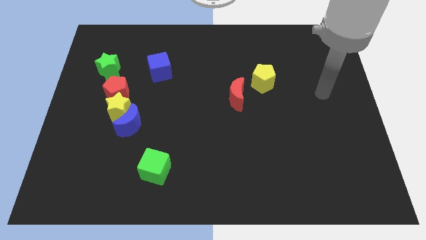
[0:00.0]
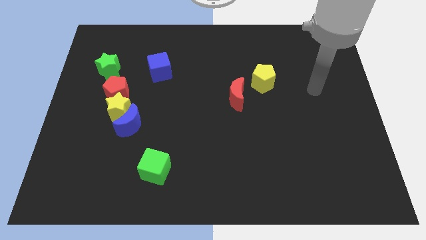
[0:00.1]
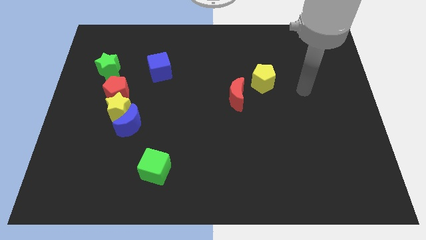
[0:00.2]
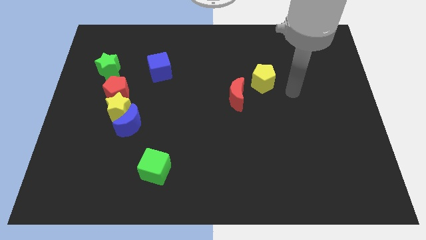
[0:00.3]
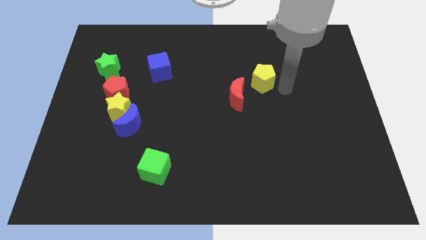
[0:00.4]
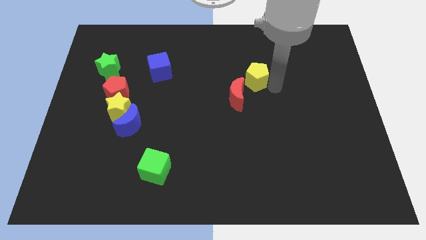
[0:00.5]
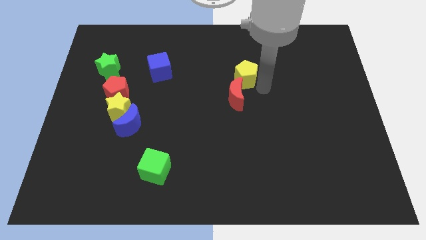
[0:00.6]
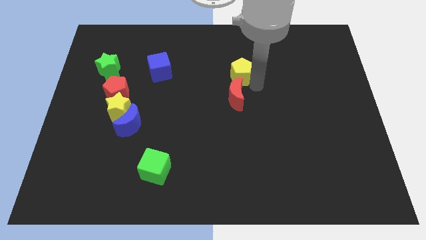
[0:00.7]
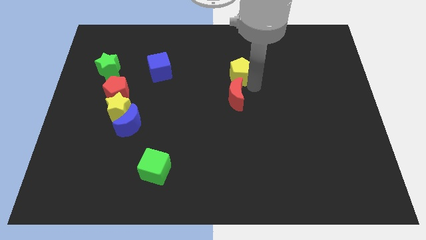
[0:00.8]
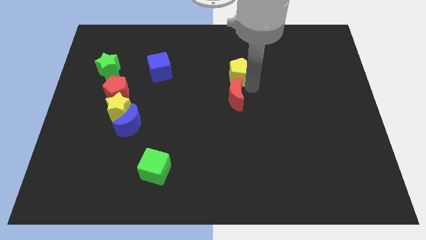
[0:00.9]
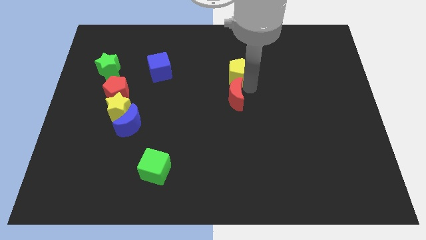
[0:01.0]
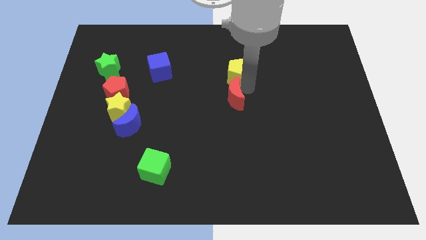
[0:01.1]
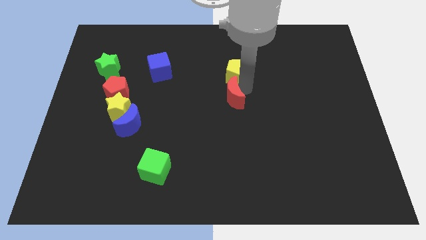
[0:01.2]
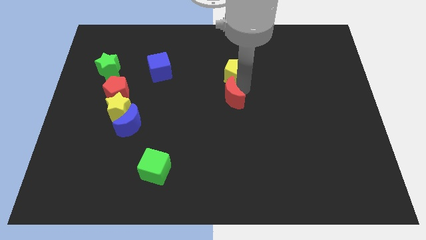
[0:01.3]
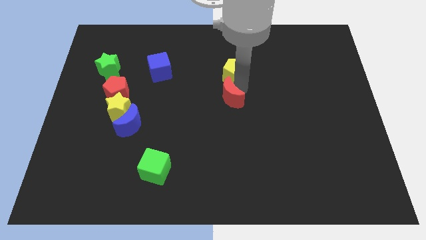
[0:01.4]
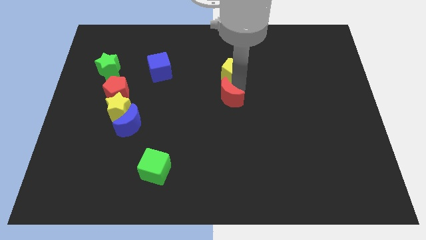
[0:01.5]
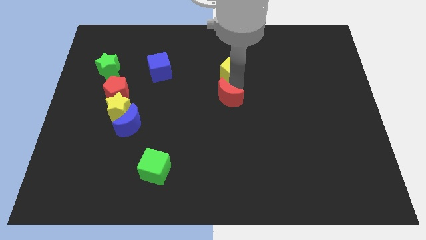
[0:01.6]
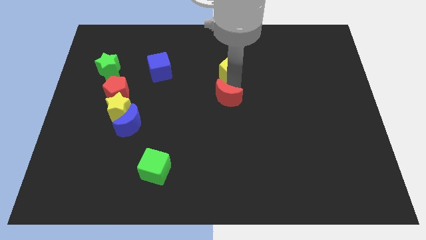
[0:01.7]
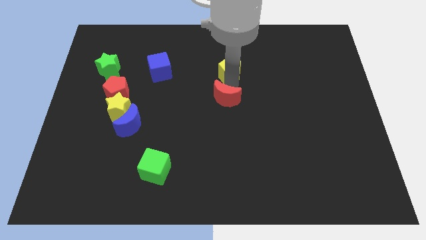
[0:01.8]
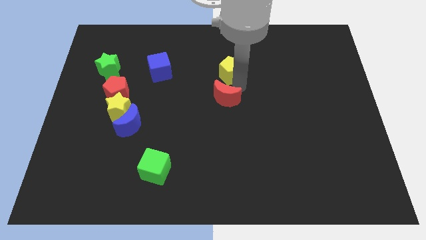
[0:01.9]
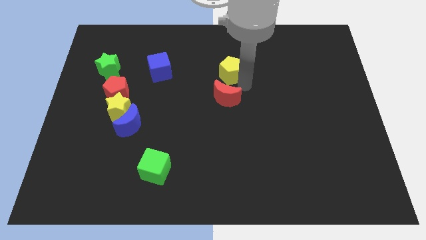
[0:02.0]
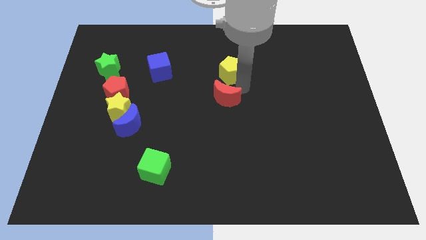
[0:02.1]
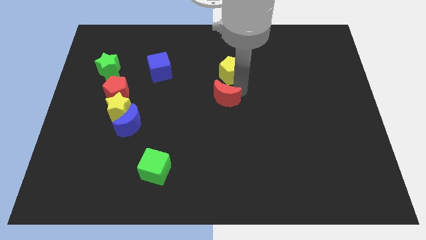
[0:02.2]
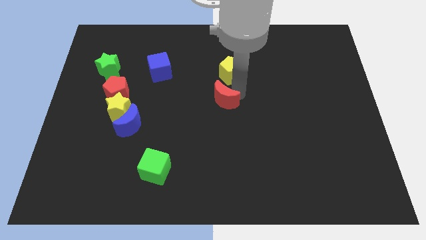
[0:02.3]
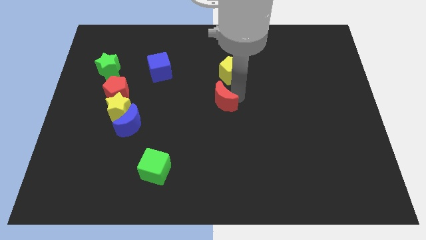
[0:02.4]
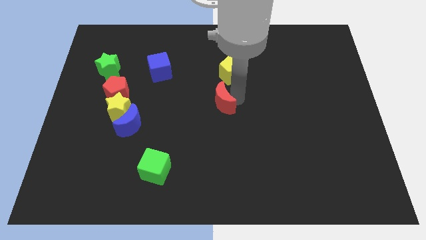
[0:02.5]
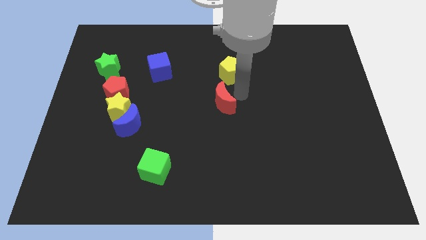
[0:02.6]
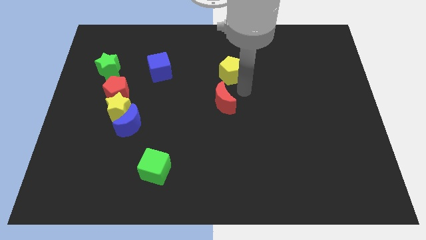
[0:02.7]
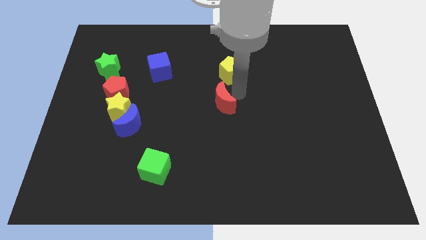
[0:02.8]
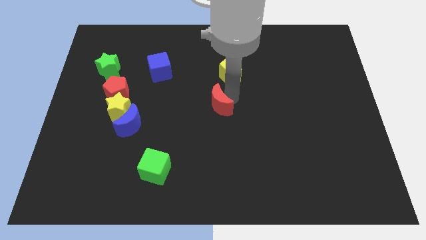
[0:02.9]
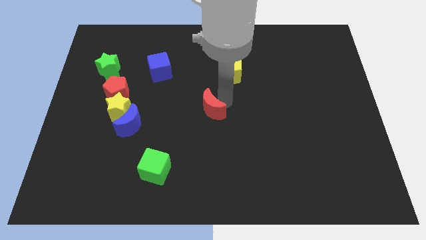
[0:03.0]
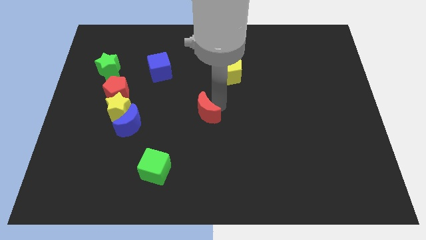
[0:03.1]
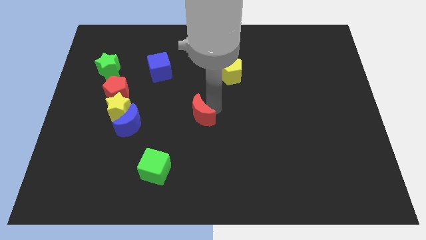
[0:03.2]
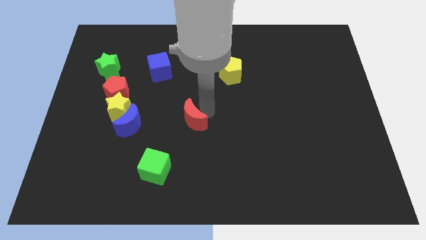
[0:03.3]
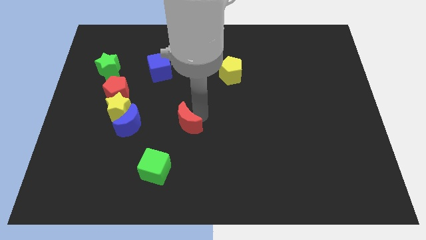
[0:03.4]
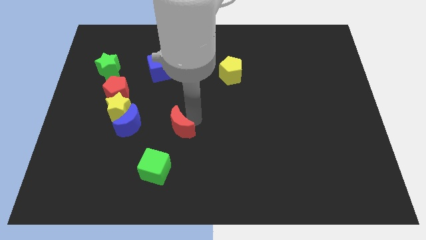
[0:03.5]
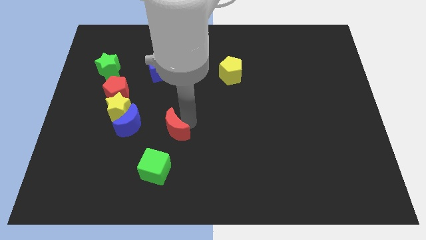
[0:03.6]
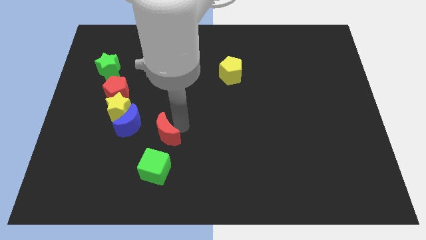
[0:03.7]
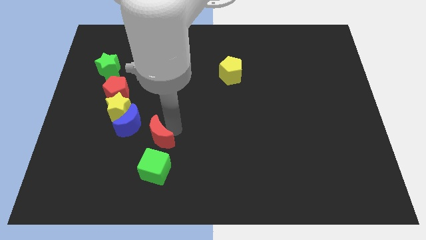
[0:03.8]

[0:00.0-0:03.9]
push the red moon downwards and to the left diagonally

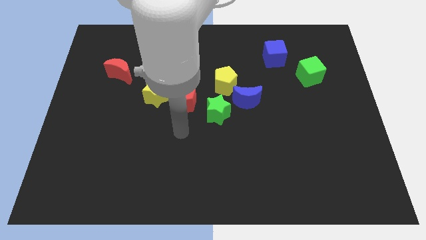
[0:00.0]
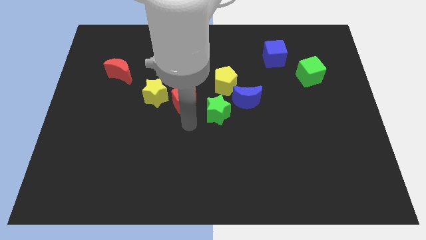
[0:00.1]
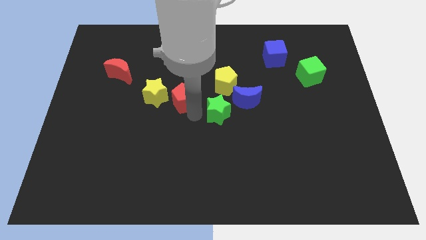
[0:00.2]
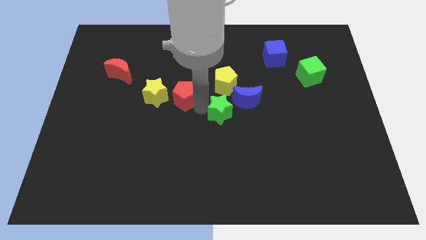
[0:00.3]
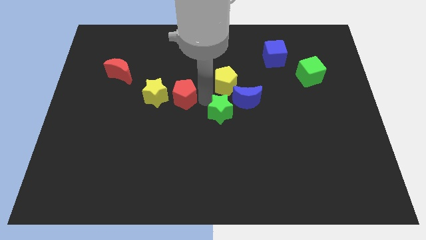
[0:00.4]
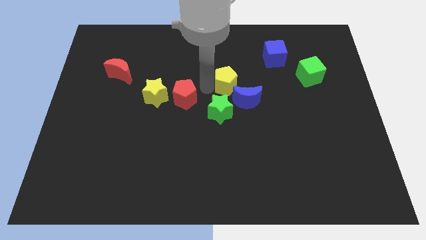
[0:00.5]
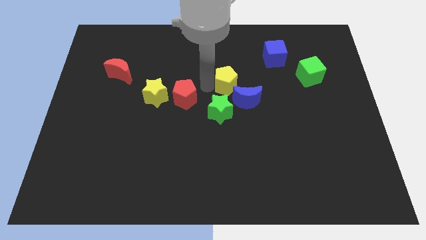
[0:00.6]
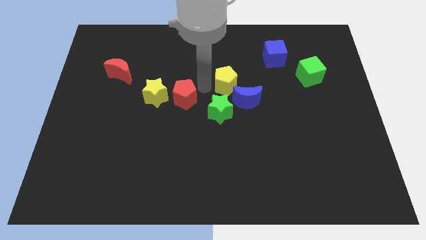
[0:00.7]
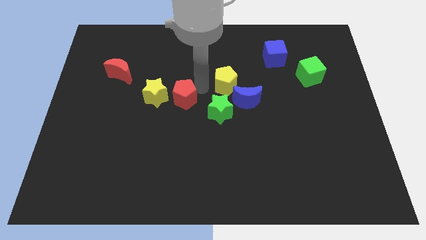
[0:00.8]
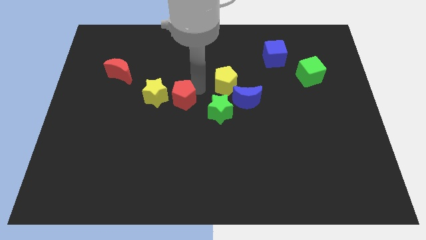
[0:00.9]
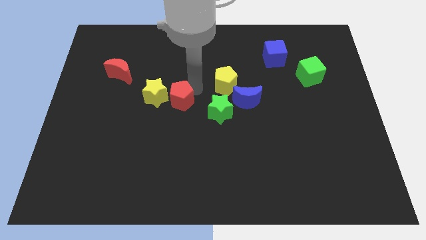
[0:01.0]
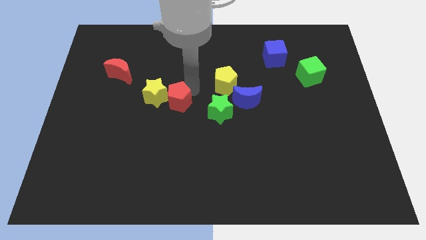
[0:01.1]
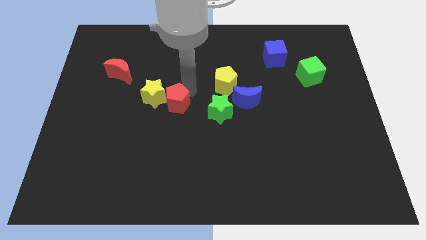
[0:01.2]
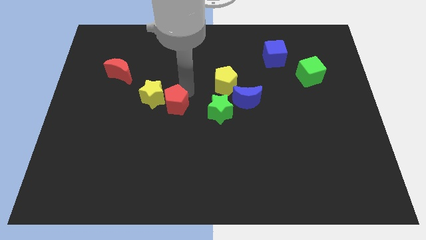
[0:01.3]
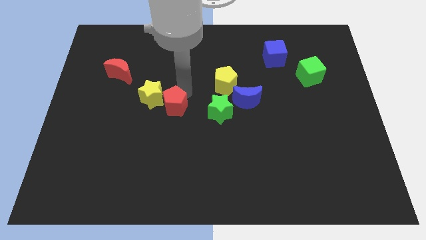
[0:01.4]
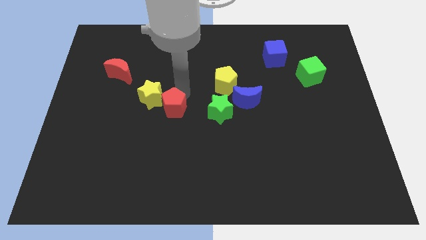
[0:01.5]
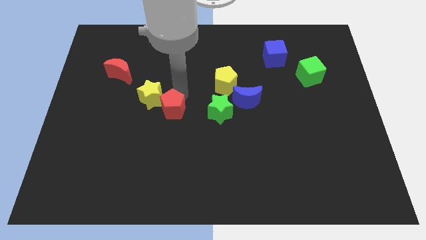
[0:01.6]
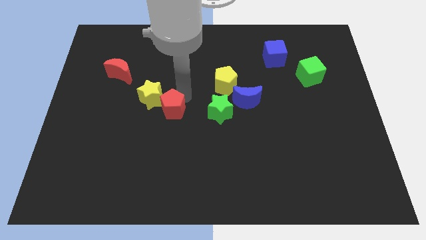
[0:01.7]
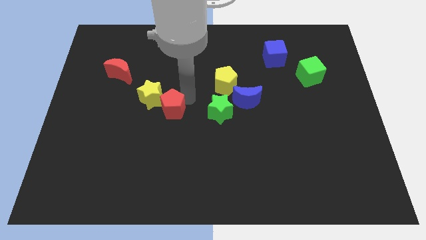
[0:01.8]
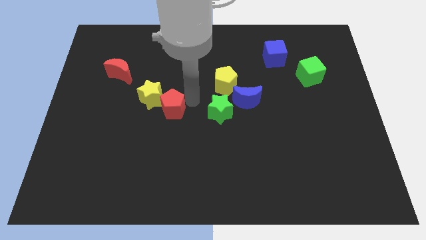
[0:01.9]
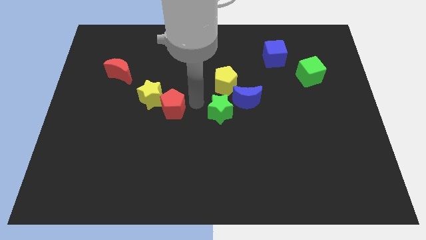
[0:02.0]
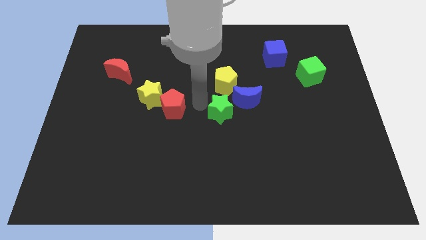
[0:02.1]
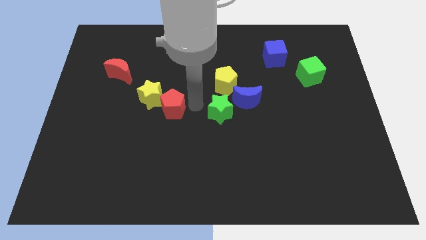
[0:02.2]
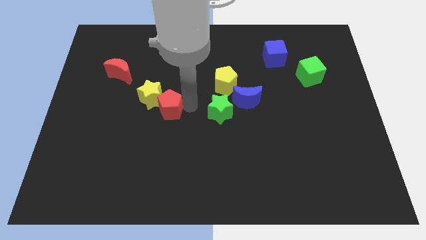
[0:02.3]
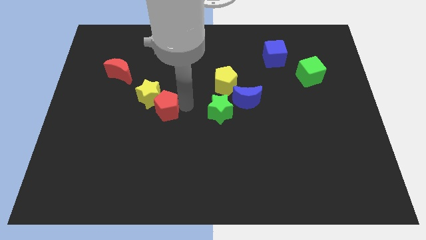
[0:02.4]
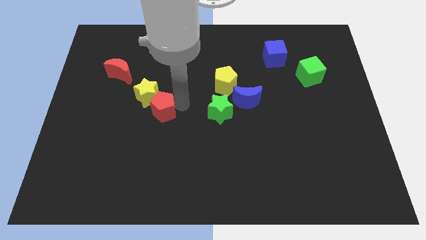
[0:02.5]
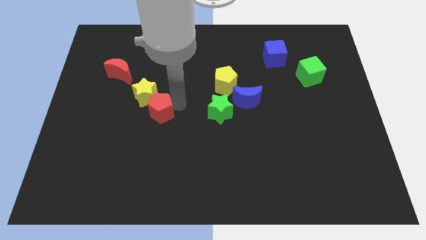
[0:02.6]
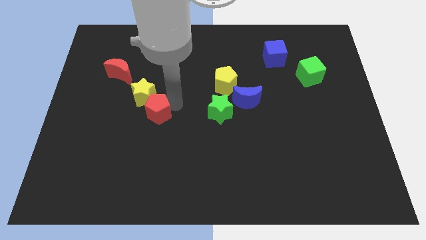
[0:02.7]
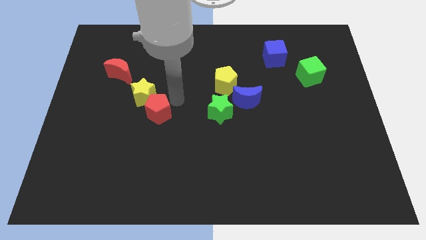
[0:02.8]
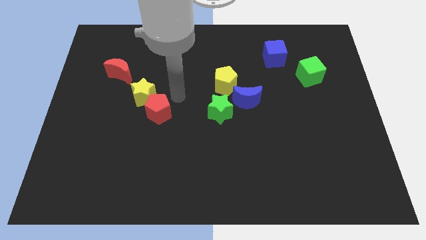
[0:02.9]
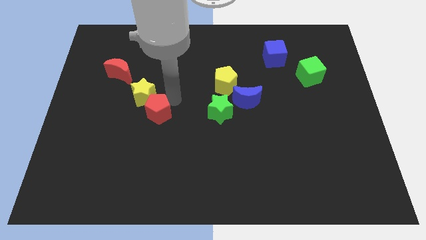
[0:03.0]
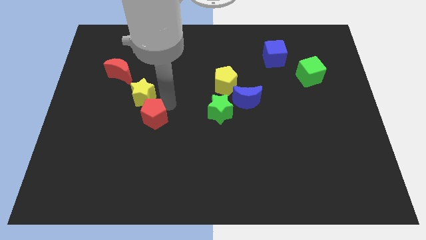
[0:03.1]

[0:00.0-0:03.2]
move the red pentagon down and then left a little

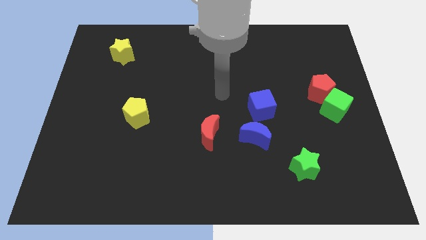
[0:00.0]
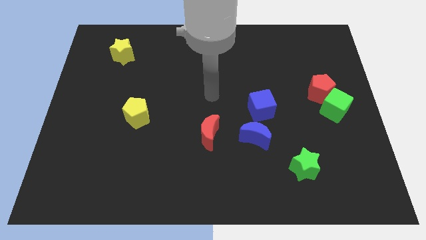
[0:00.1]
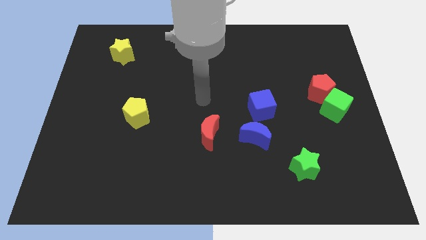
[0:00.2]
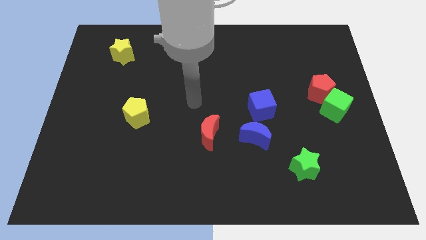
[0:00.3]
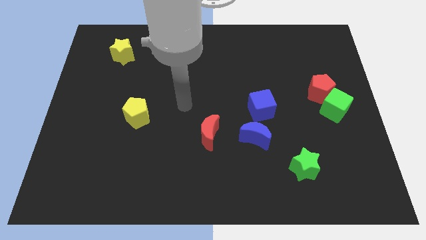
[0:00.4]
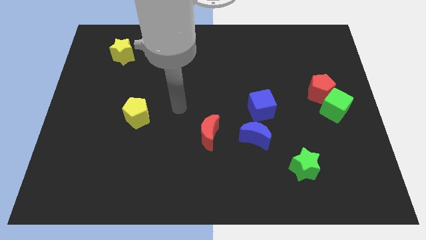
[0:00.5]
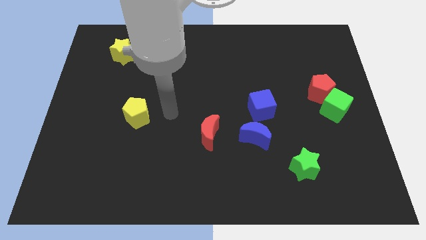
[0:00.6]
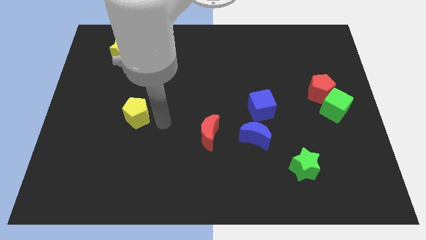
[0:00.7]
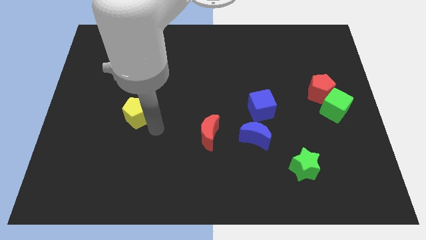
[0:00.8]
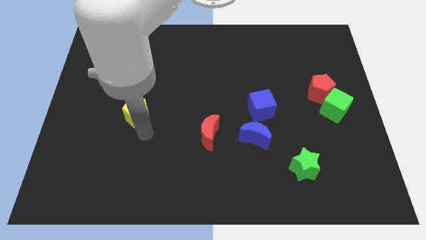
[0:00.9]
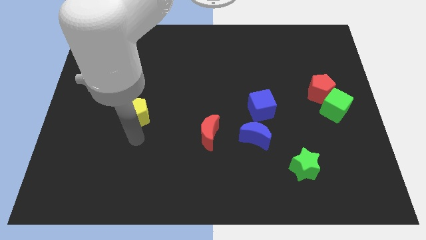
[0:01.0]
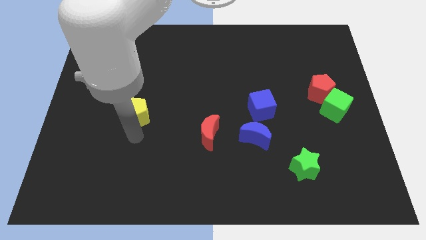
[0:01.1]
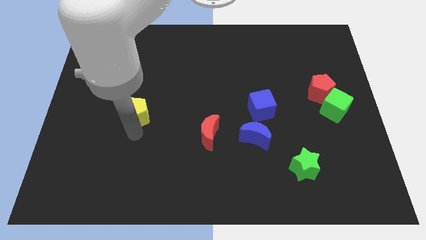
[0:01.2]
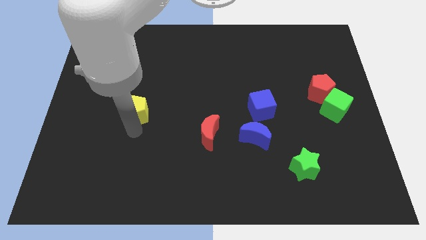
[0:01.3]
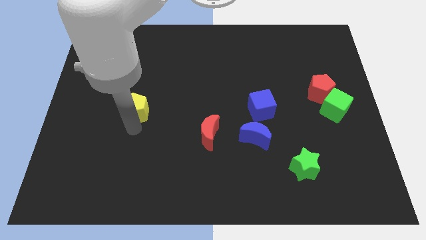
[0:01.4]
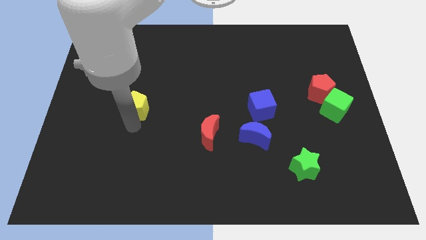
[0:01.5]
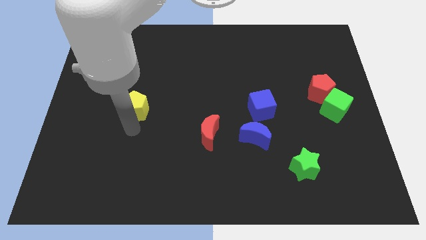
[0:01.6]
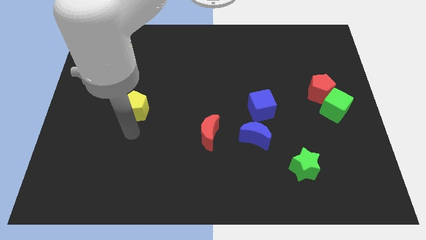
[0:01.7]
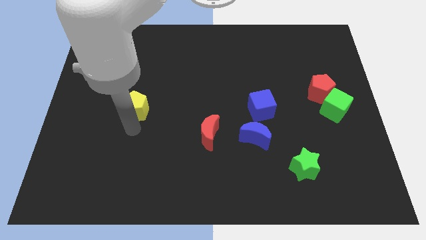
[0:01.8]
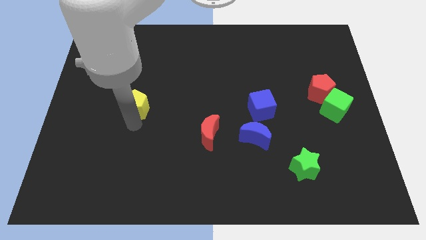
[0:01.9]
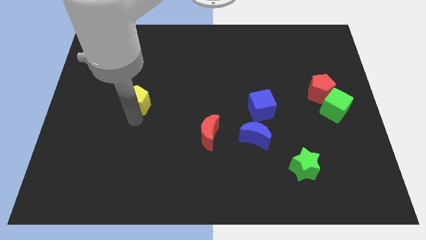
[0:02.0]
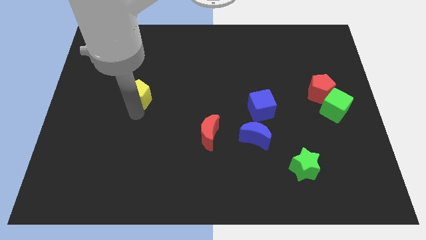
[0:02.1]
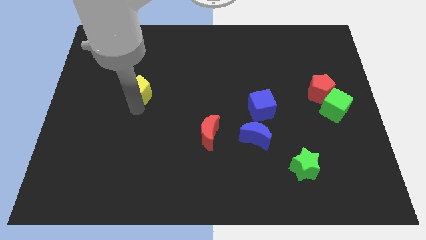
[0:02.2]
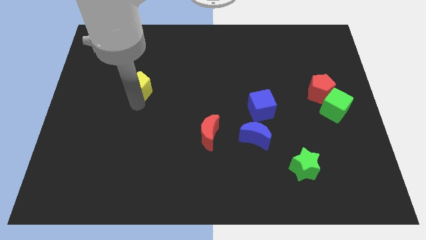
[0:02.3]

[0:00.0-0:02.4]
push the yellow pentagon upwards a bit
